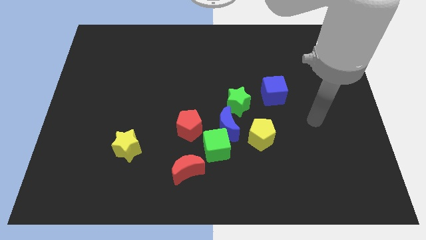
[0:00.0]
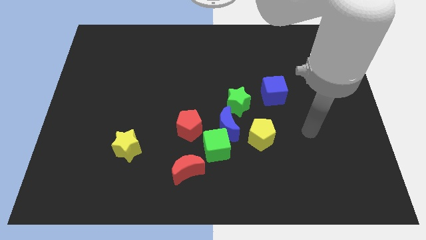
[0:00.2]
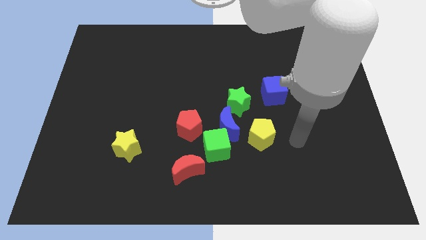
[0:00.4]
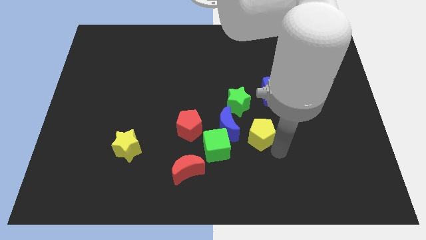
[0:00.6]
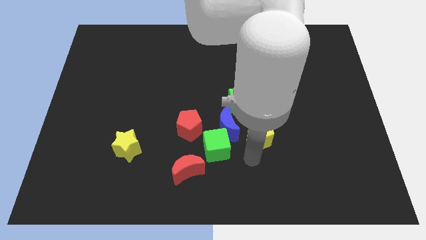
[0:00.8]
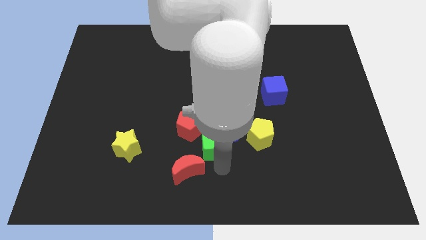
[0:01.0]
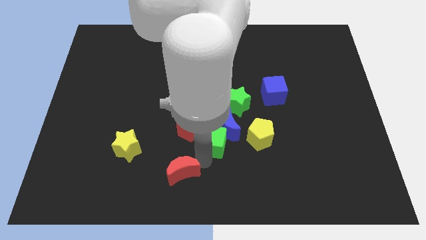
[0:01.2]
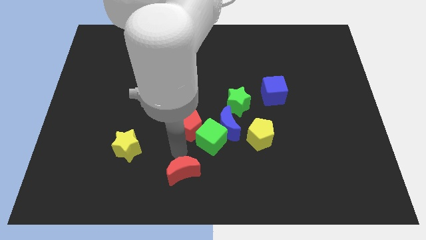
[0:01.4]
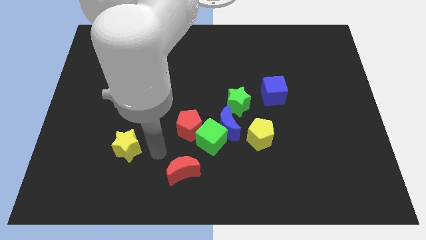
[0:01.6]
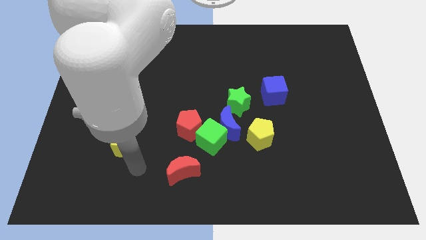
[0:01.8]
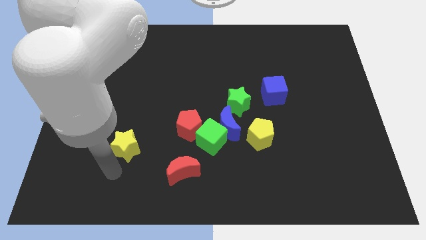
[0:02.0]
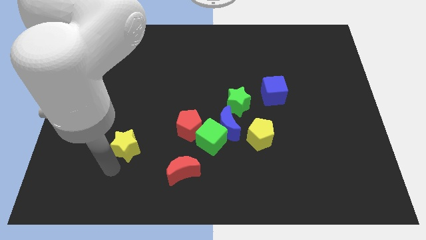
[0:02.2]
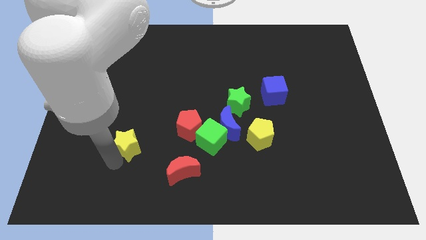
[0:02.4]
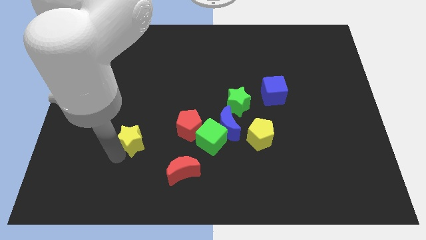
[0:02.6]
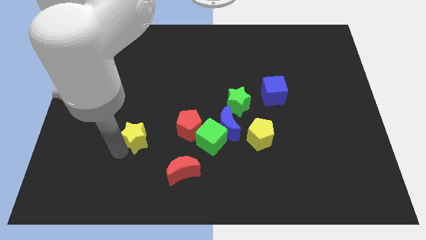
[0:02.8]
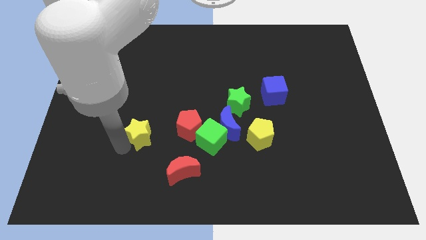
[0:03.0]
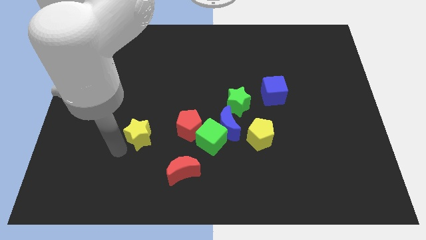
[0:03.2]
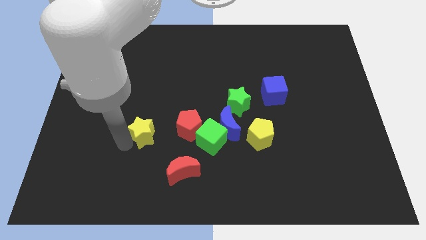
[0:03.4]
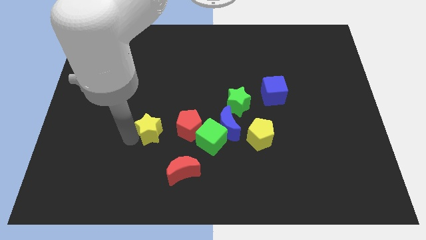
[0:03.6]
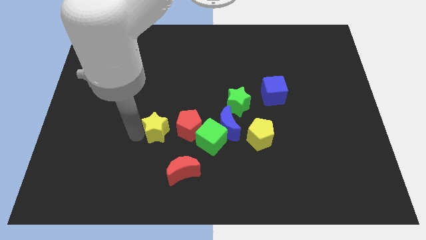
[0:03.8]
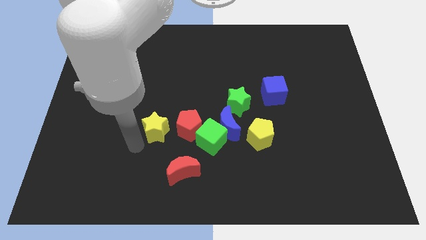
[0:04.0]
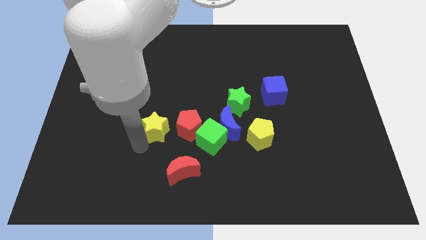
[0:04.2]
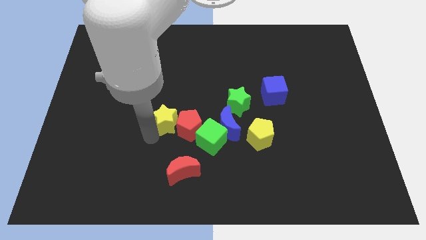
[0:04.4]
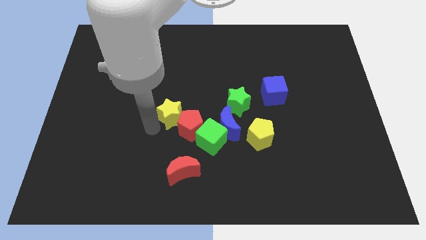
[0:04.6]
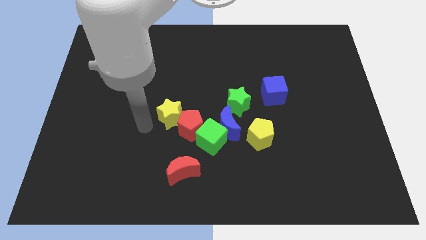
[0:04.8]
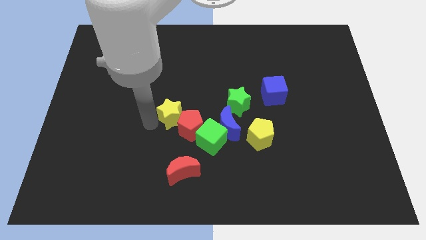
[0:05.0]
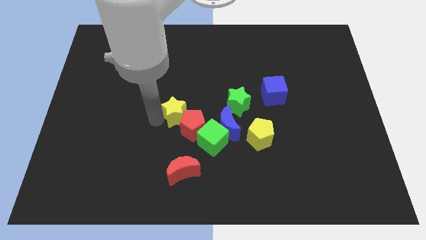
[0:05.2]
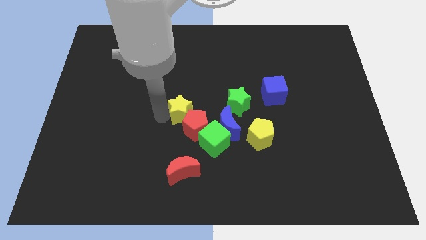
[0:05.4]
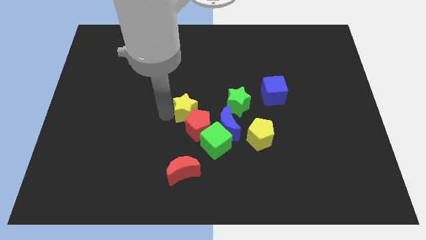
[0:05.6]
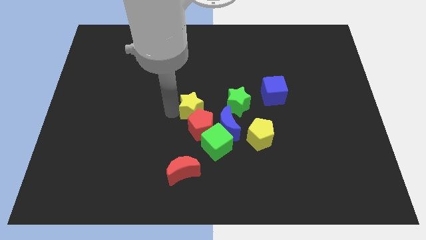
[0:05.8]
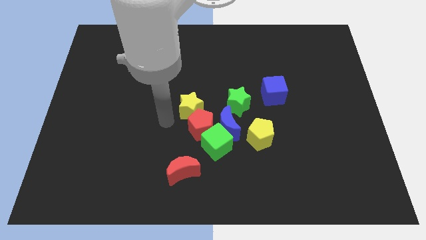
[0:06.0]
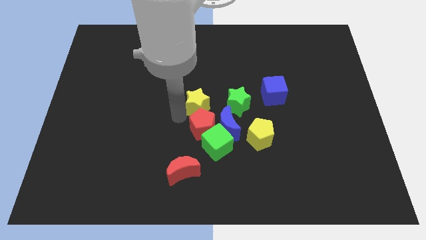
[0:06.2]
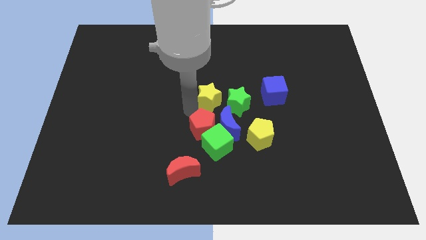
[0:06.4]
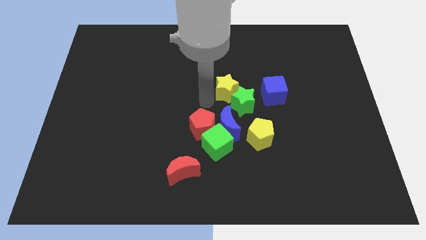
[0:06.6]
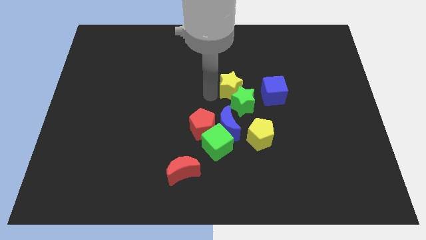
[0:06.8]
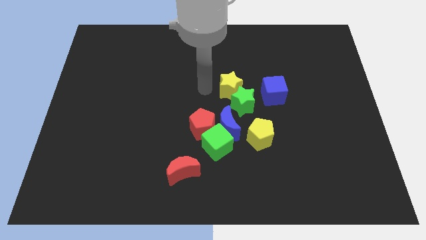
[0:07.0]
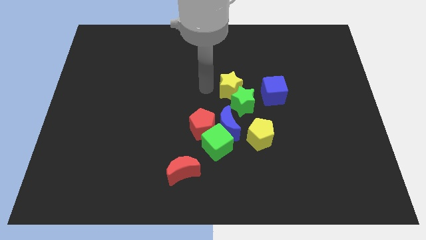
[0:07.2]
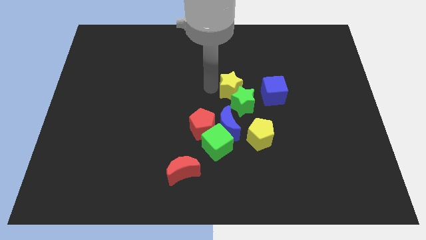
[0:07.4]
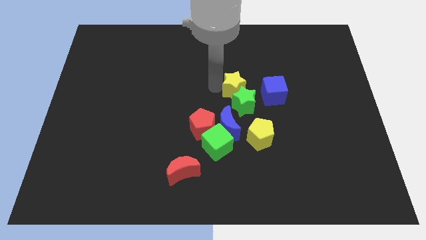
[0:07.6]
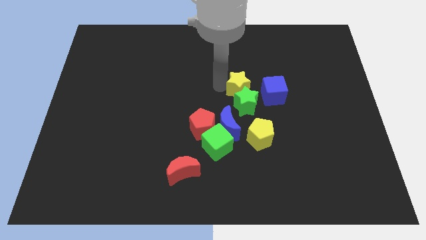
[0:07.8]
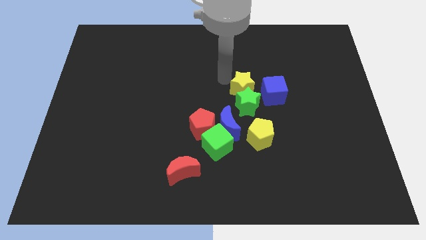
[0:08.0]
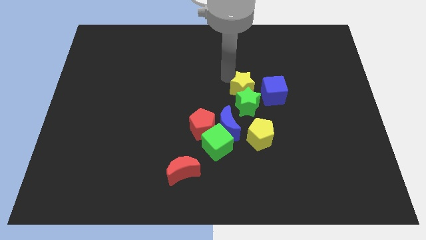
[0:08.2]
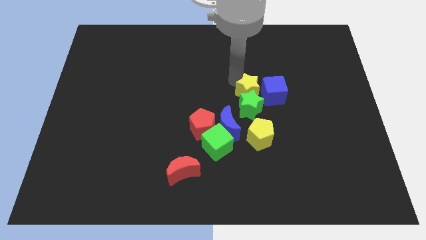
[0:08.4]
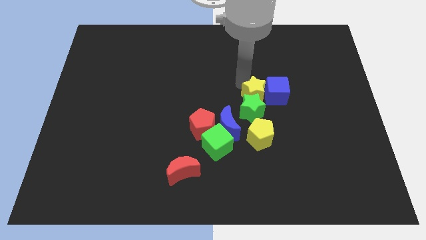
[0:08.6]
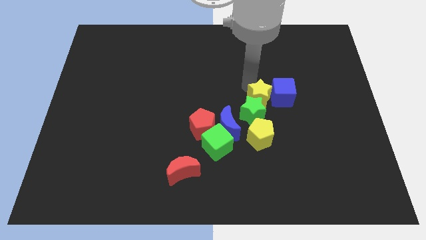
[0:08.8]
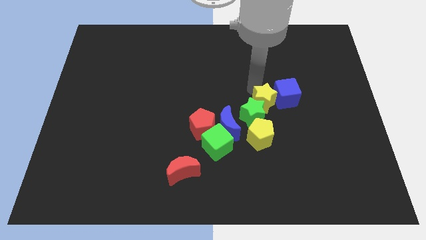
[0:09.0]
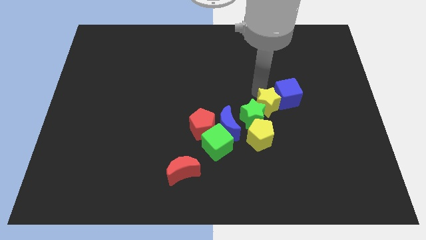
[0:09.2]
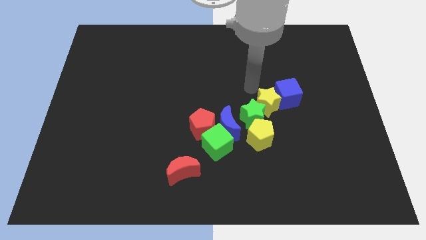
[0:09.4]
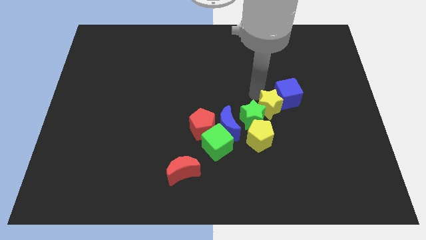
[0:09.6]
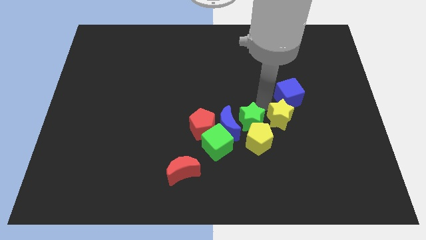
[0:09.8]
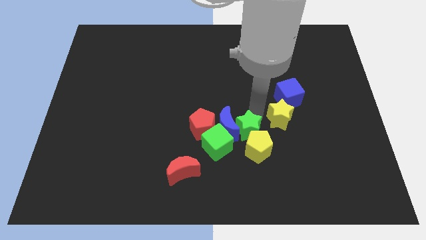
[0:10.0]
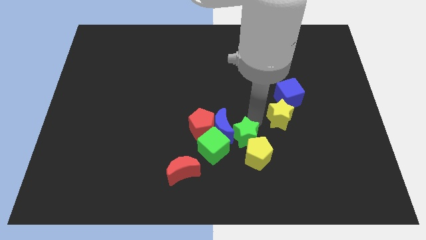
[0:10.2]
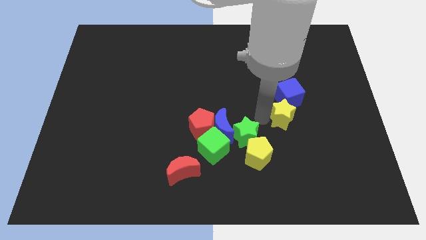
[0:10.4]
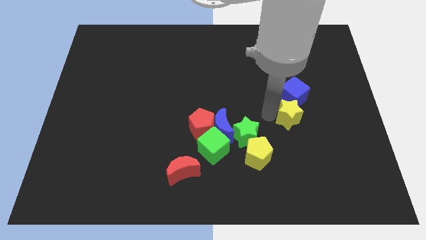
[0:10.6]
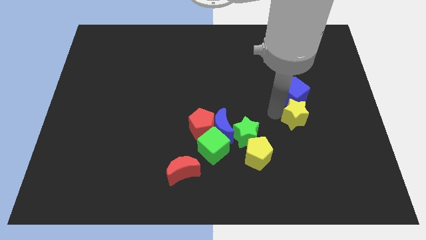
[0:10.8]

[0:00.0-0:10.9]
move the yellow star to the bottom right of the blue cube

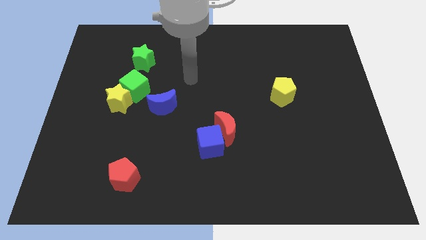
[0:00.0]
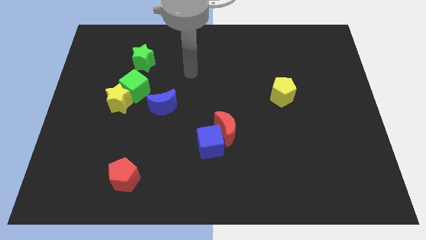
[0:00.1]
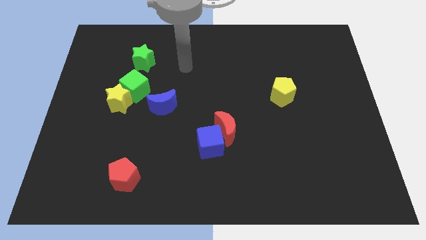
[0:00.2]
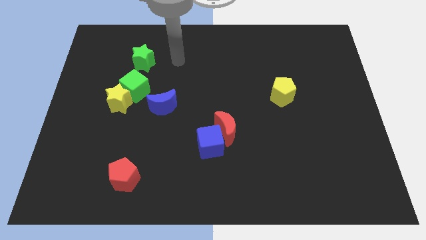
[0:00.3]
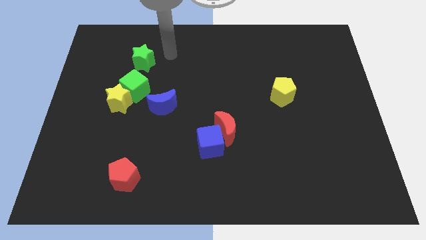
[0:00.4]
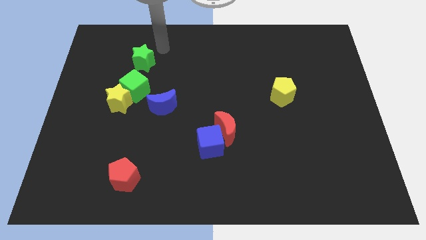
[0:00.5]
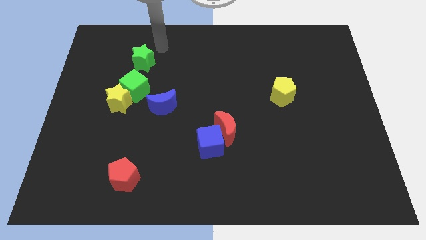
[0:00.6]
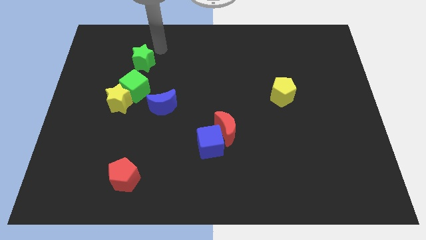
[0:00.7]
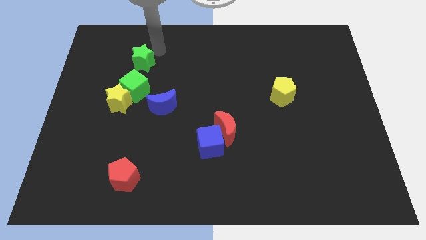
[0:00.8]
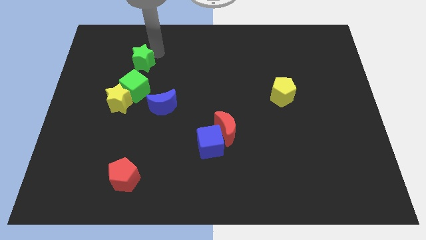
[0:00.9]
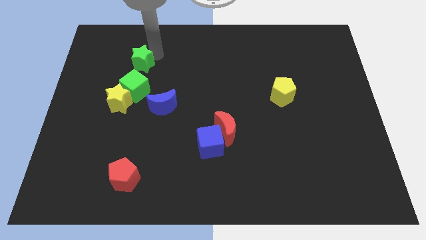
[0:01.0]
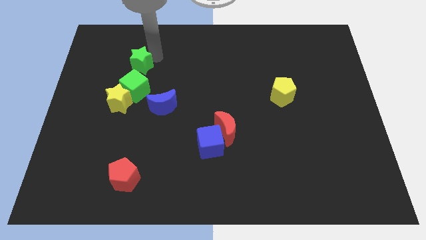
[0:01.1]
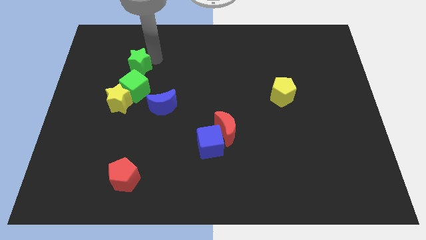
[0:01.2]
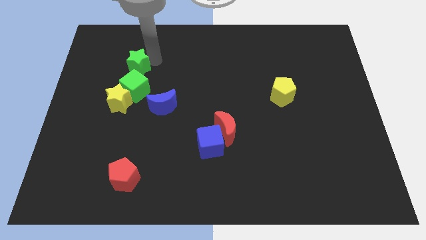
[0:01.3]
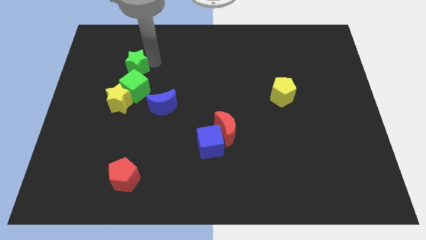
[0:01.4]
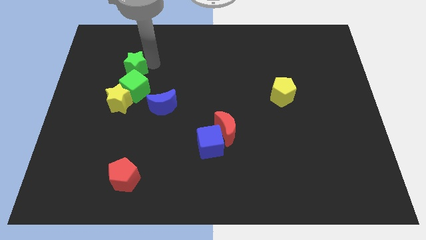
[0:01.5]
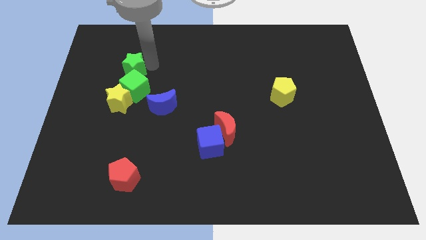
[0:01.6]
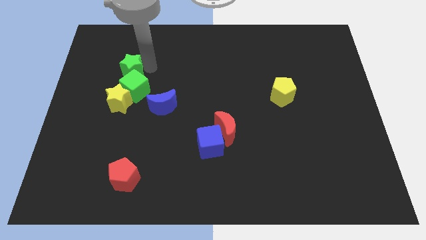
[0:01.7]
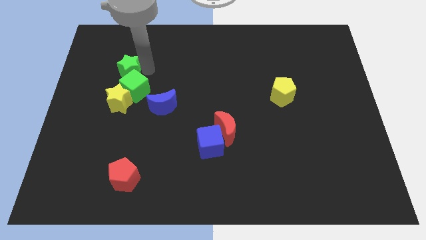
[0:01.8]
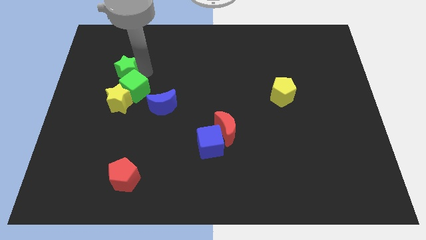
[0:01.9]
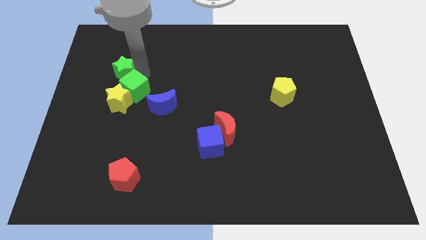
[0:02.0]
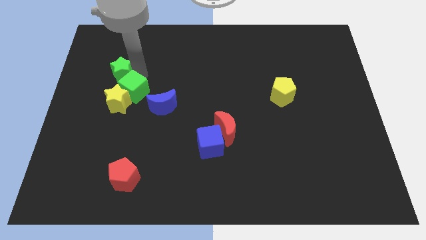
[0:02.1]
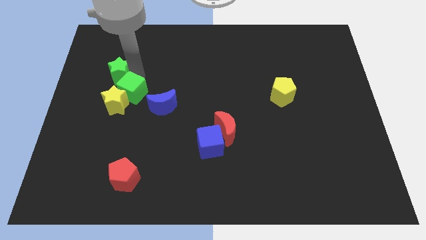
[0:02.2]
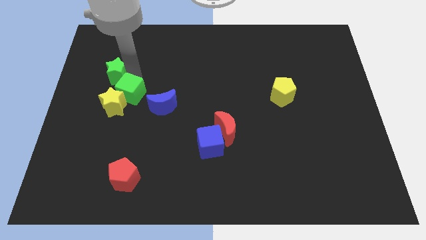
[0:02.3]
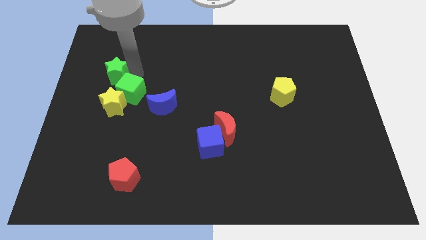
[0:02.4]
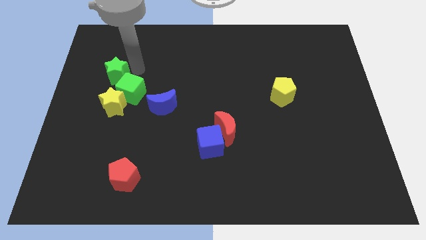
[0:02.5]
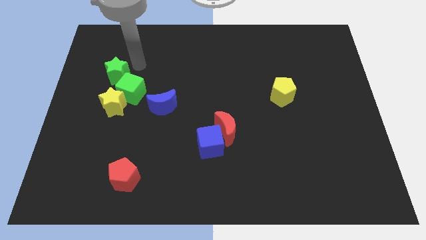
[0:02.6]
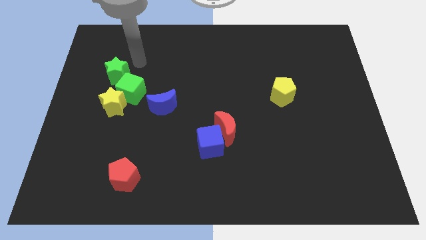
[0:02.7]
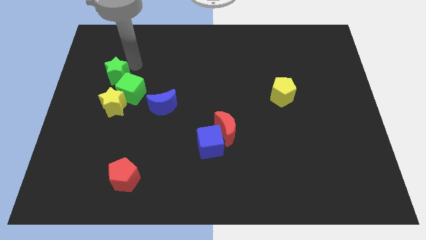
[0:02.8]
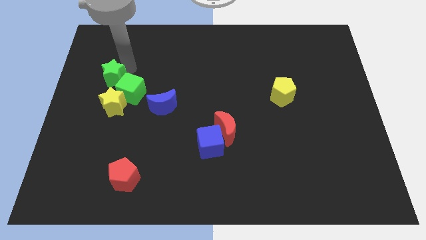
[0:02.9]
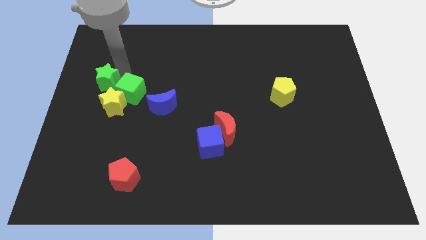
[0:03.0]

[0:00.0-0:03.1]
move the green star to the top left side of the yellow star
